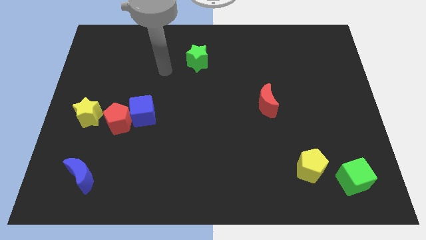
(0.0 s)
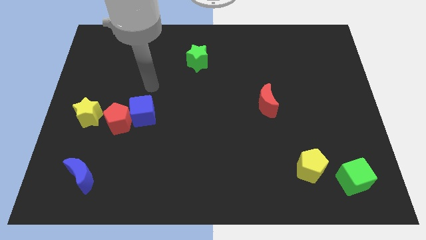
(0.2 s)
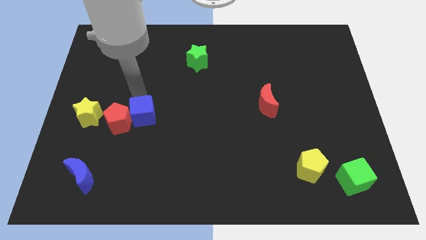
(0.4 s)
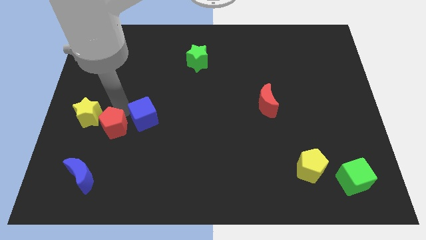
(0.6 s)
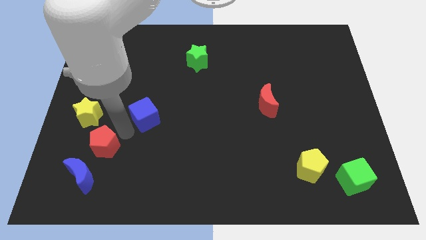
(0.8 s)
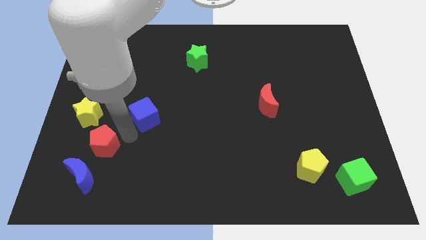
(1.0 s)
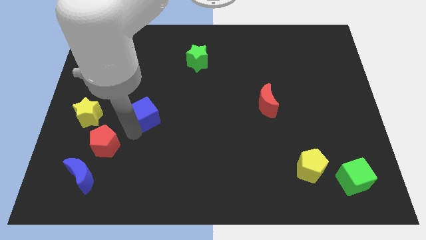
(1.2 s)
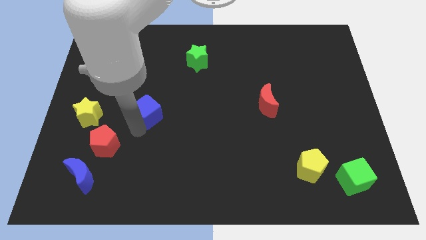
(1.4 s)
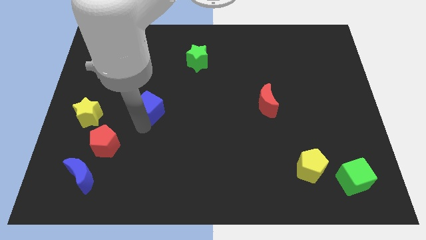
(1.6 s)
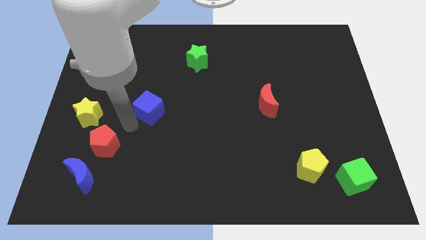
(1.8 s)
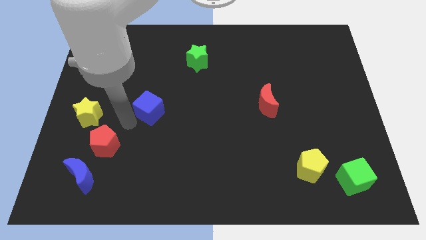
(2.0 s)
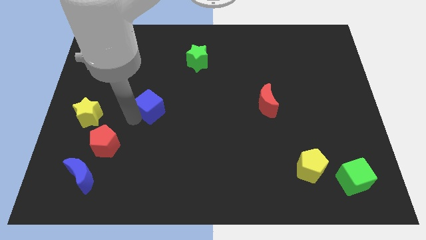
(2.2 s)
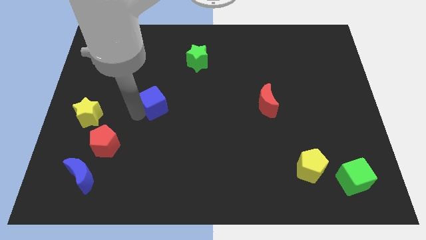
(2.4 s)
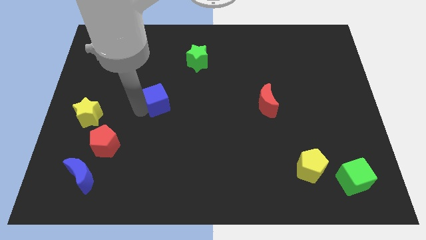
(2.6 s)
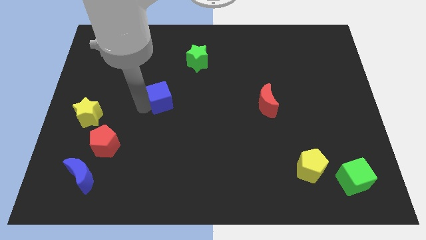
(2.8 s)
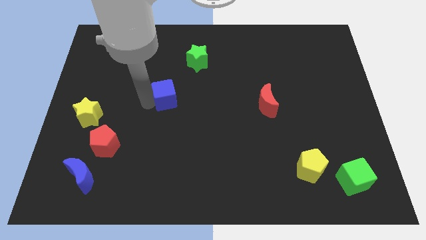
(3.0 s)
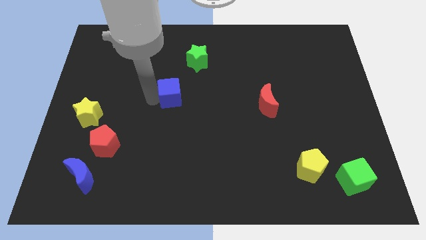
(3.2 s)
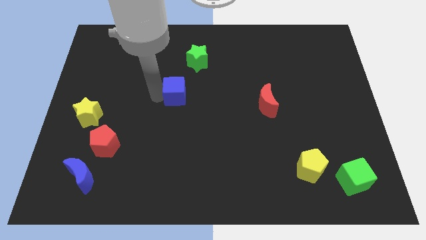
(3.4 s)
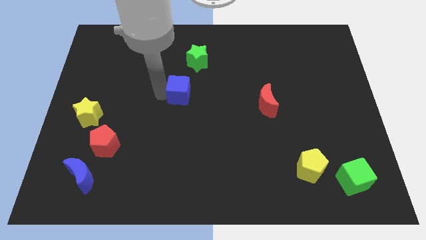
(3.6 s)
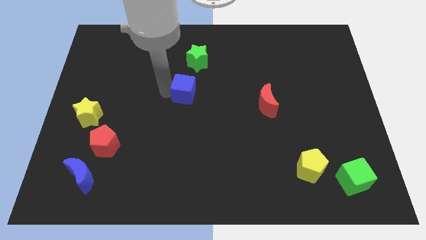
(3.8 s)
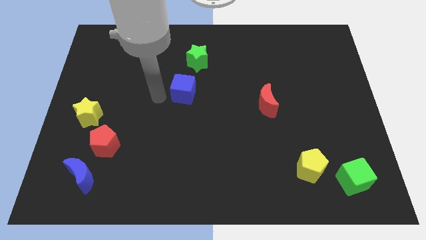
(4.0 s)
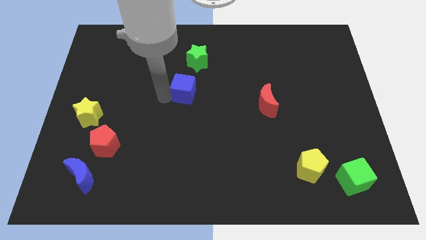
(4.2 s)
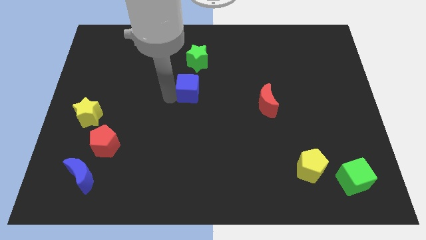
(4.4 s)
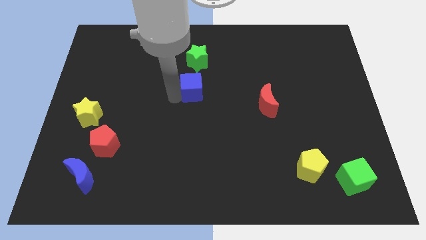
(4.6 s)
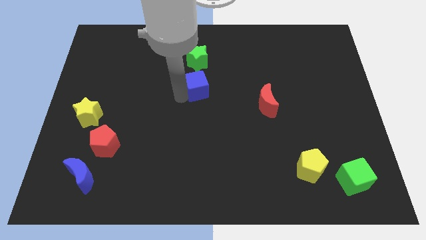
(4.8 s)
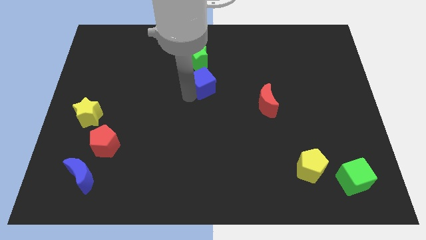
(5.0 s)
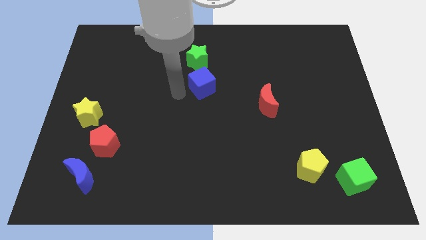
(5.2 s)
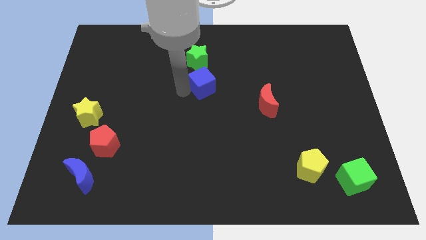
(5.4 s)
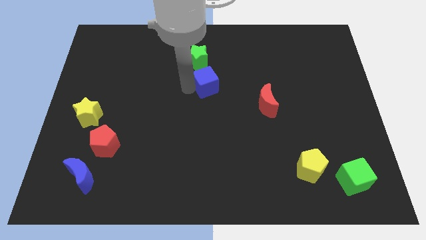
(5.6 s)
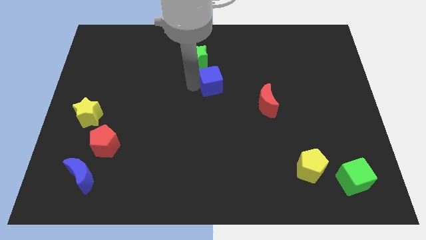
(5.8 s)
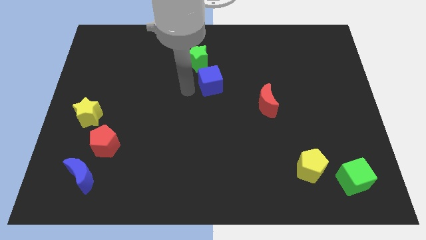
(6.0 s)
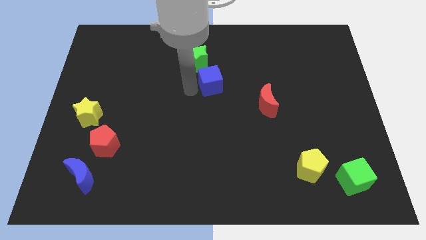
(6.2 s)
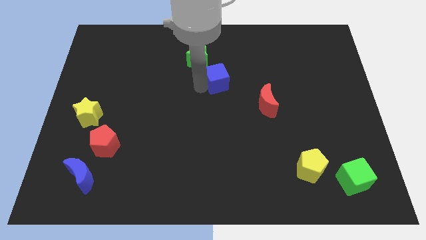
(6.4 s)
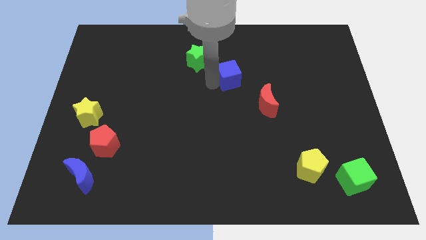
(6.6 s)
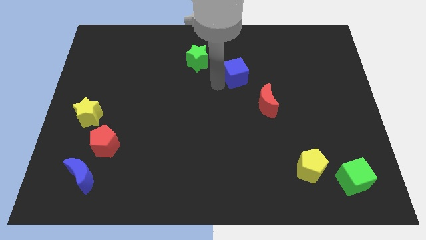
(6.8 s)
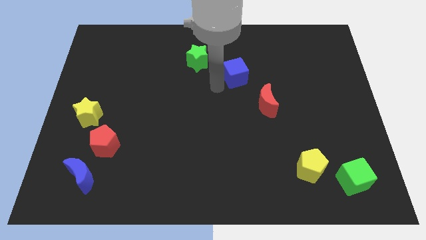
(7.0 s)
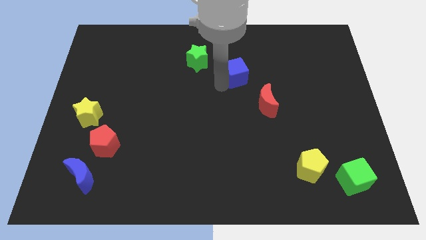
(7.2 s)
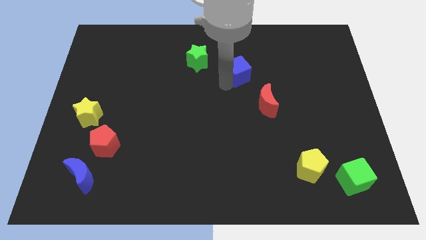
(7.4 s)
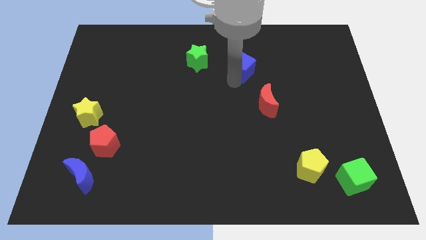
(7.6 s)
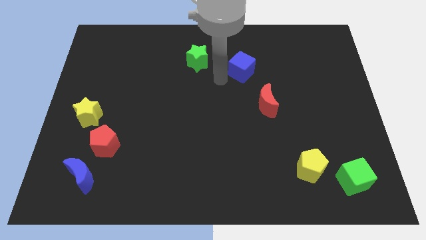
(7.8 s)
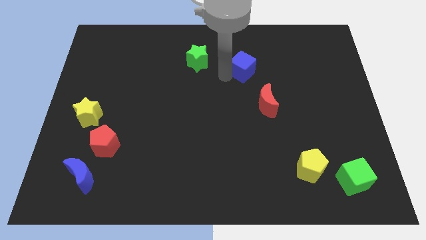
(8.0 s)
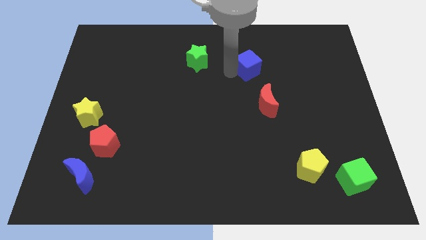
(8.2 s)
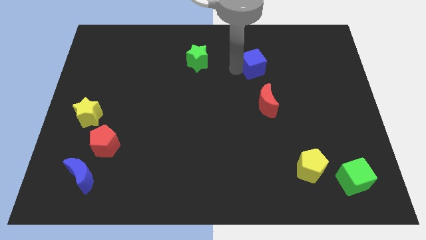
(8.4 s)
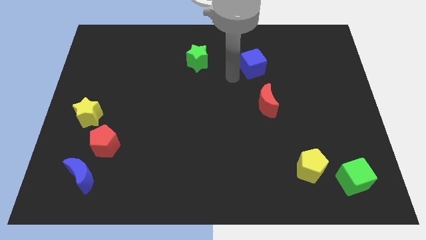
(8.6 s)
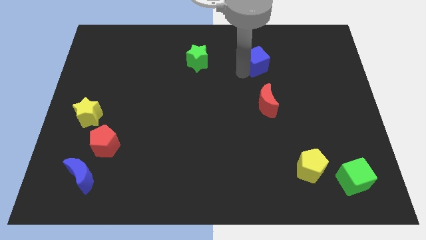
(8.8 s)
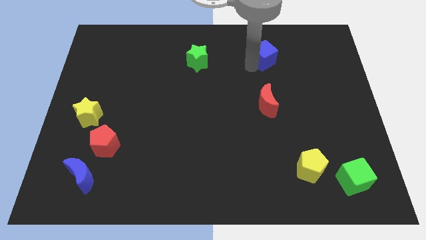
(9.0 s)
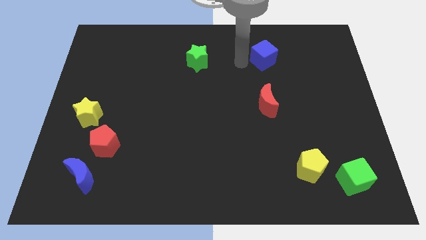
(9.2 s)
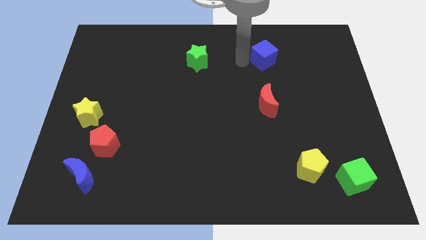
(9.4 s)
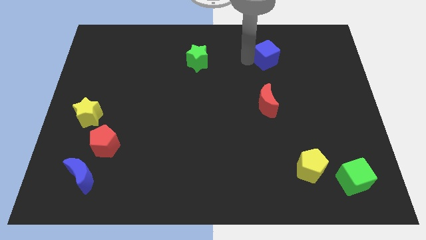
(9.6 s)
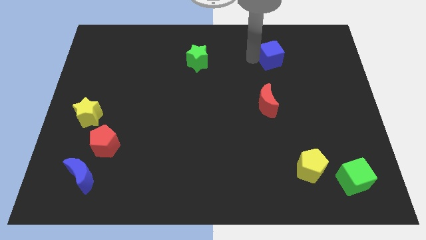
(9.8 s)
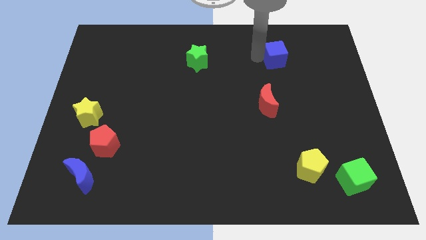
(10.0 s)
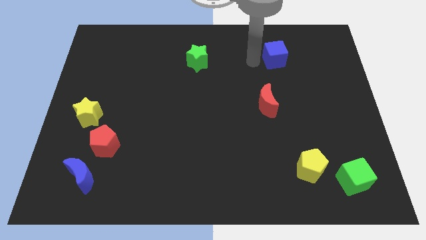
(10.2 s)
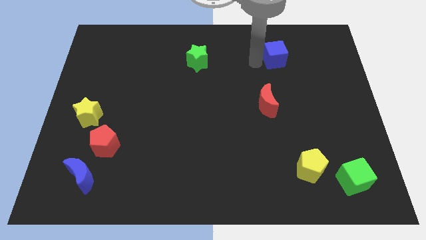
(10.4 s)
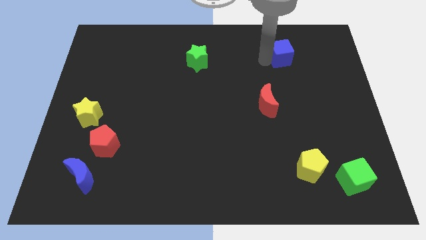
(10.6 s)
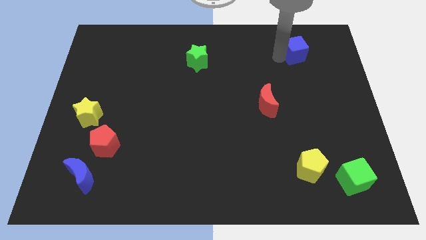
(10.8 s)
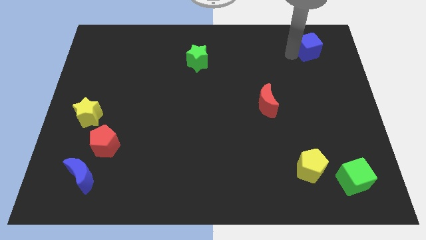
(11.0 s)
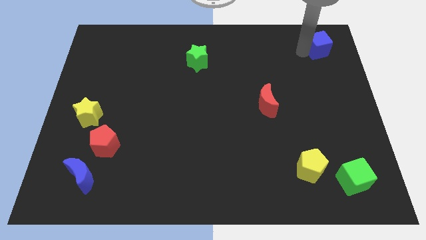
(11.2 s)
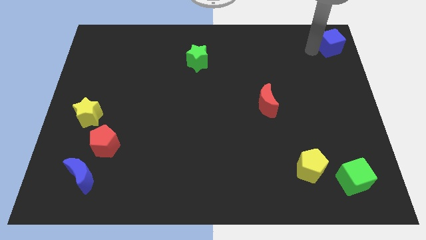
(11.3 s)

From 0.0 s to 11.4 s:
put the blue cube to the top right

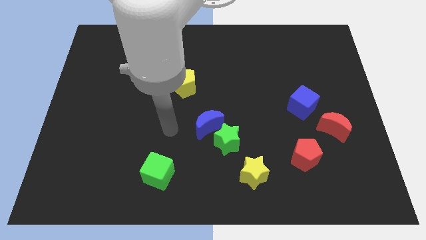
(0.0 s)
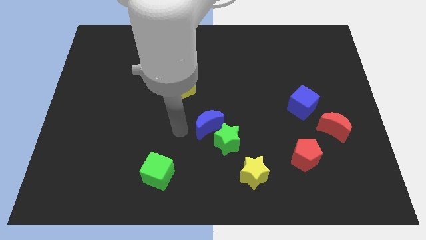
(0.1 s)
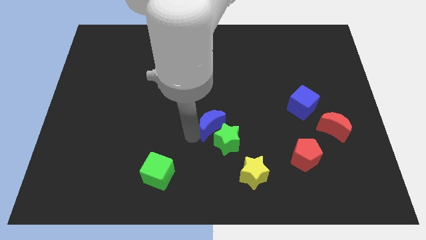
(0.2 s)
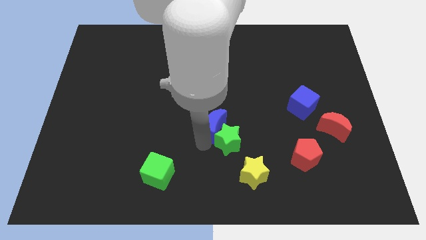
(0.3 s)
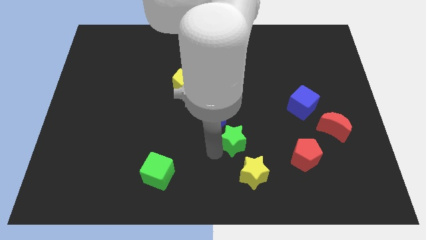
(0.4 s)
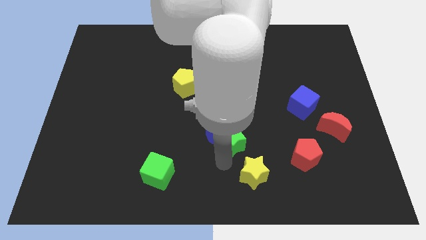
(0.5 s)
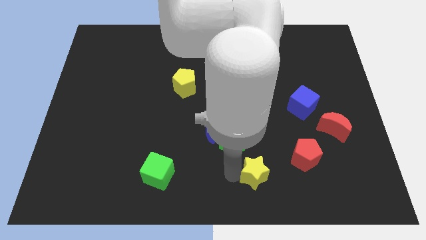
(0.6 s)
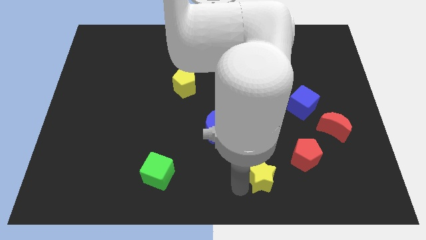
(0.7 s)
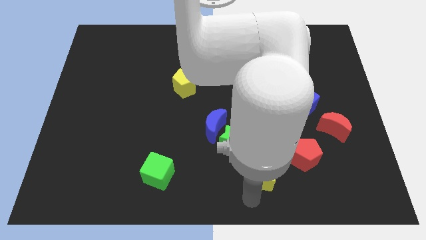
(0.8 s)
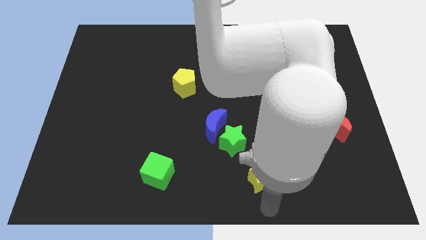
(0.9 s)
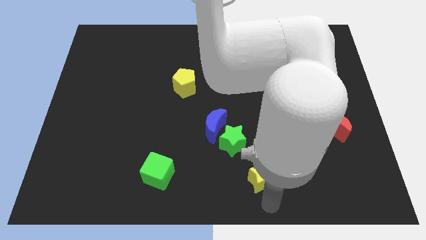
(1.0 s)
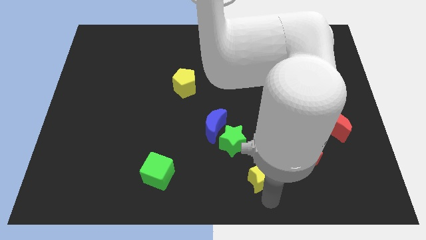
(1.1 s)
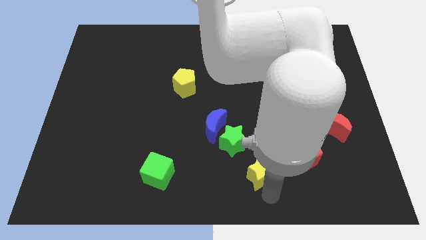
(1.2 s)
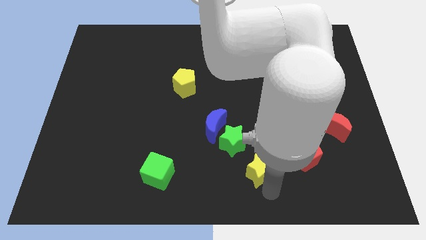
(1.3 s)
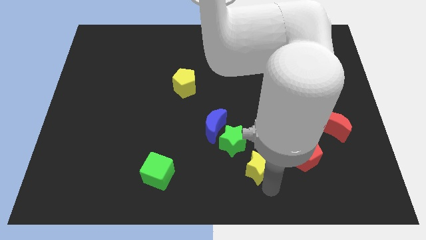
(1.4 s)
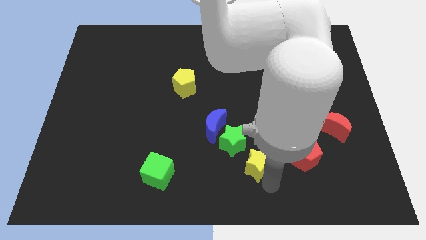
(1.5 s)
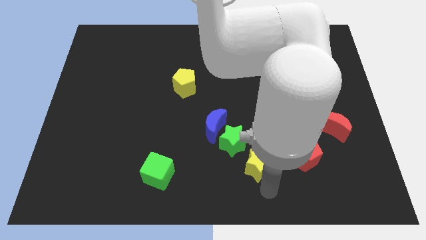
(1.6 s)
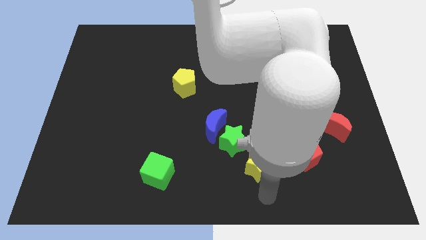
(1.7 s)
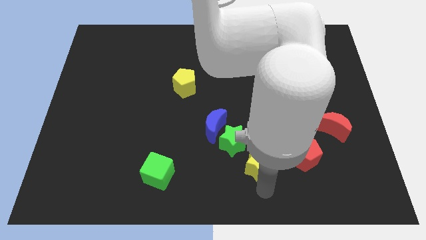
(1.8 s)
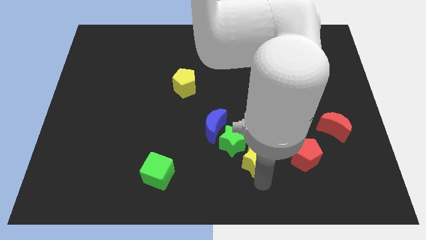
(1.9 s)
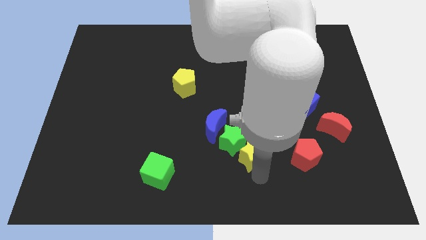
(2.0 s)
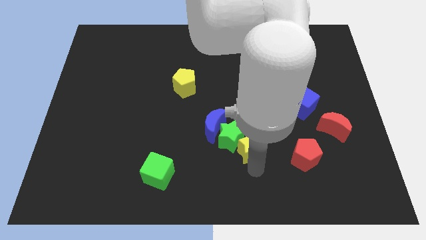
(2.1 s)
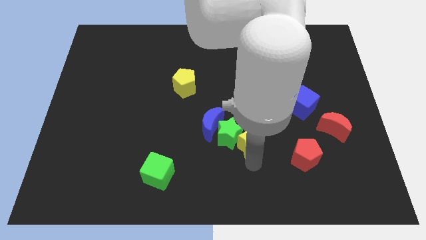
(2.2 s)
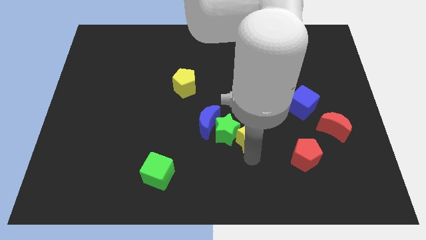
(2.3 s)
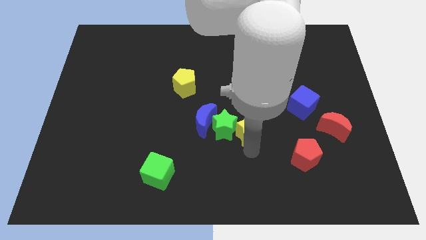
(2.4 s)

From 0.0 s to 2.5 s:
move the yellow star to the center of the board
